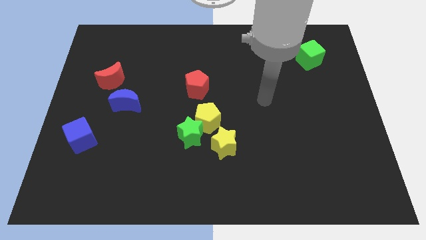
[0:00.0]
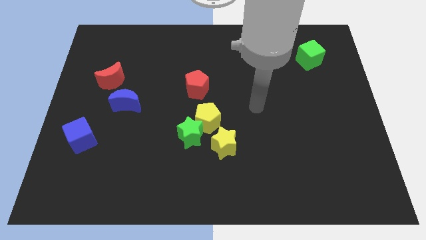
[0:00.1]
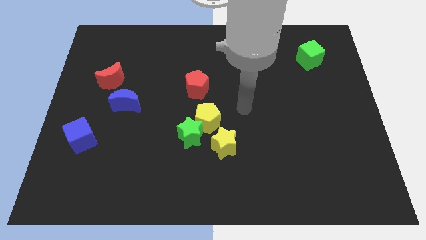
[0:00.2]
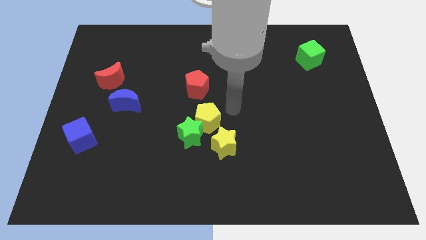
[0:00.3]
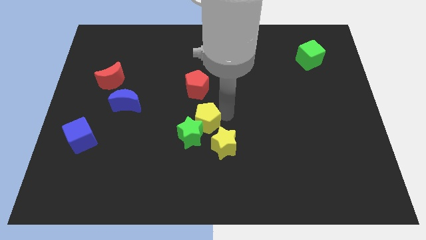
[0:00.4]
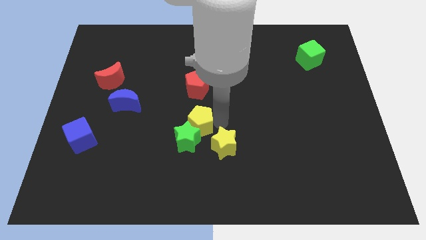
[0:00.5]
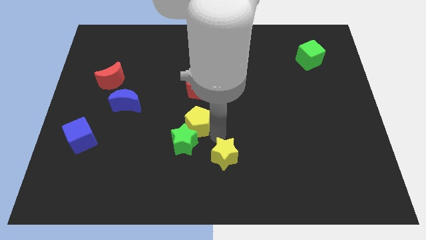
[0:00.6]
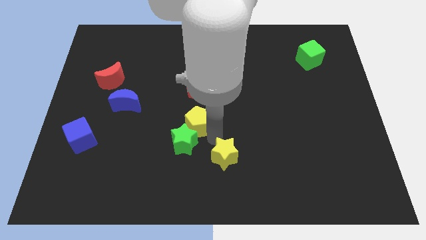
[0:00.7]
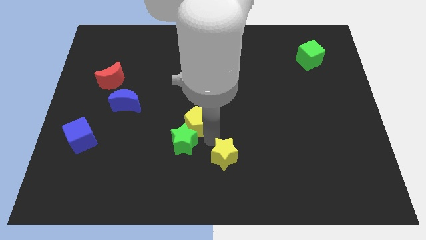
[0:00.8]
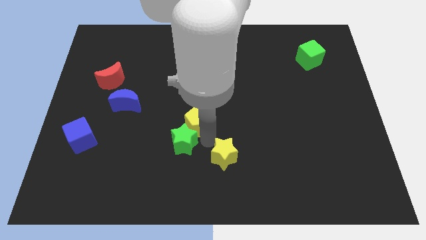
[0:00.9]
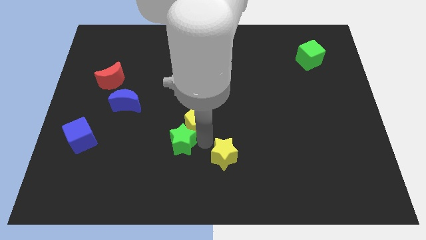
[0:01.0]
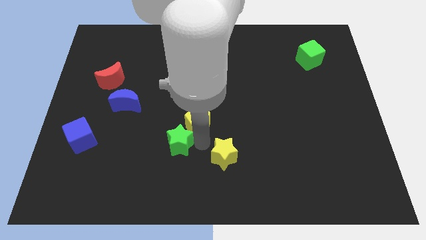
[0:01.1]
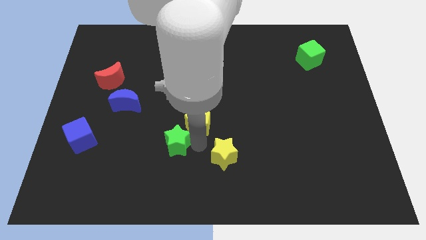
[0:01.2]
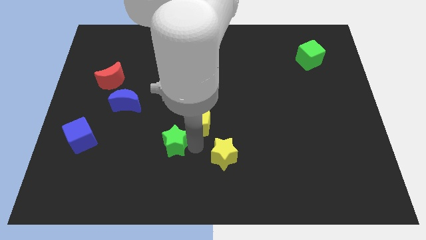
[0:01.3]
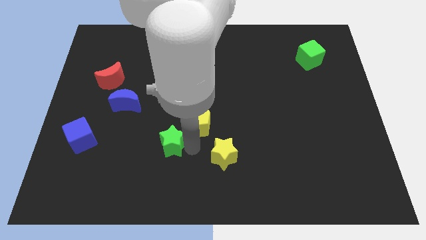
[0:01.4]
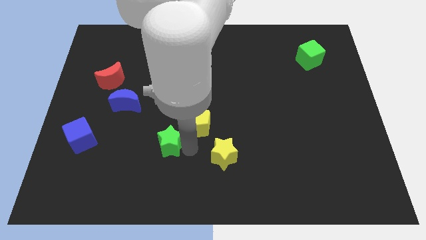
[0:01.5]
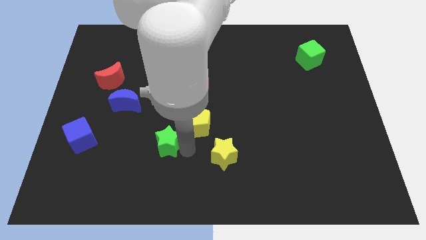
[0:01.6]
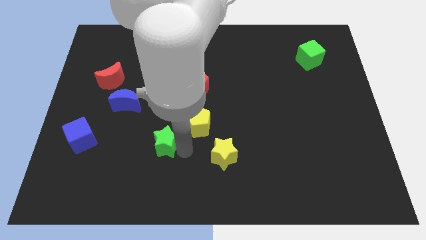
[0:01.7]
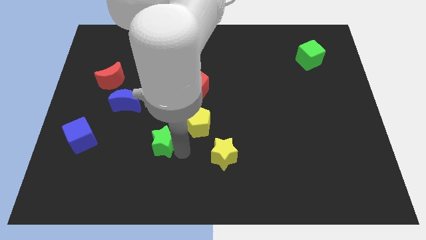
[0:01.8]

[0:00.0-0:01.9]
move the green star away from the yellow pentagon and yellow star

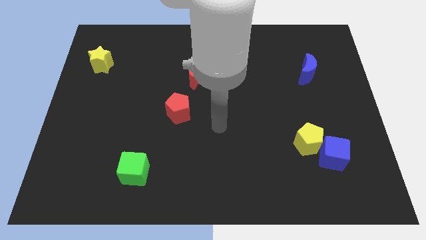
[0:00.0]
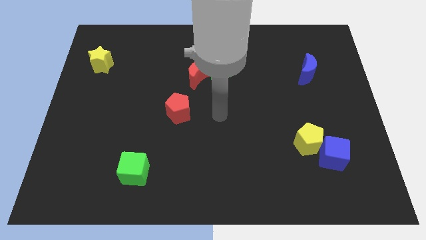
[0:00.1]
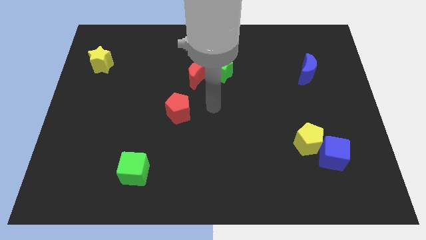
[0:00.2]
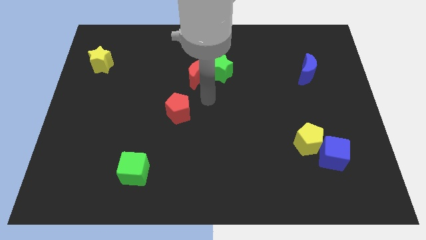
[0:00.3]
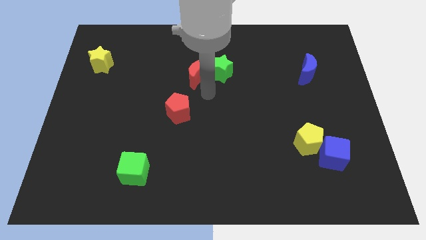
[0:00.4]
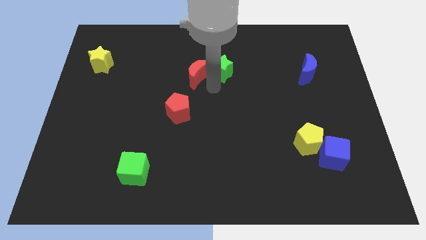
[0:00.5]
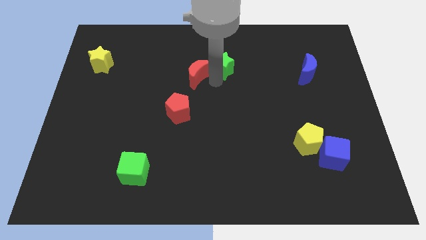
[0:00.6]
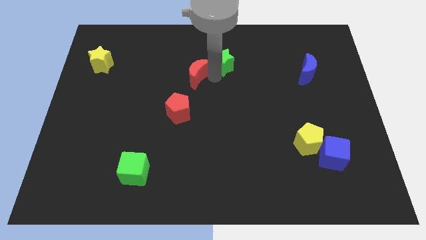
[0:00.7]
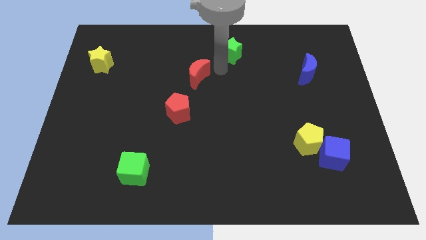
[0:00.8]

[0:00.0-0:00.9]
pull the red moon apart from the green star

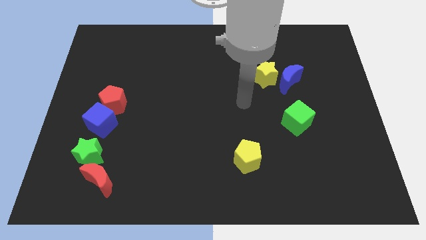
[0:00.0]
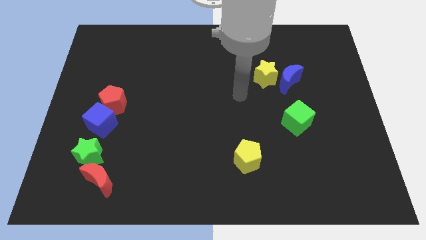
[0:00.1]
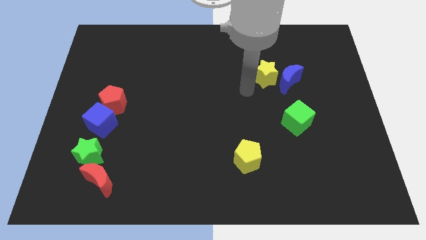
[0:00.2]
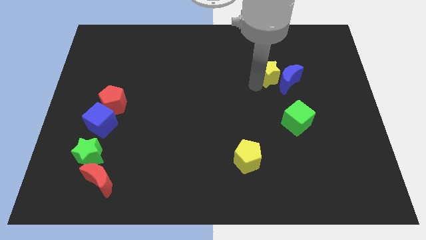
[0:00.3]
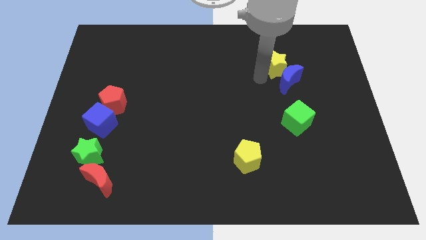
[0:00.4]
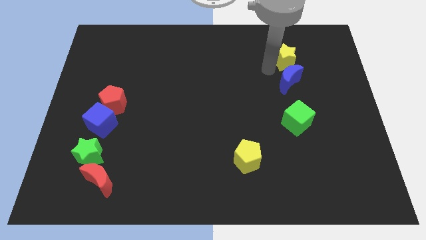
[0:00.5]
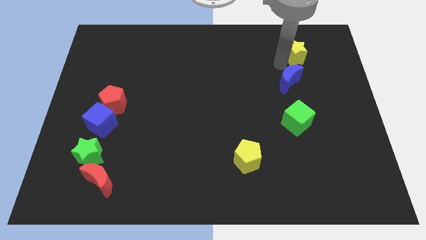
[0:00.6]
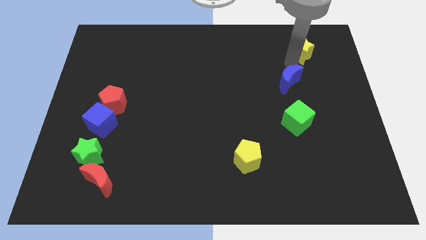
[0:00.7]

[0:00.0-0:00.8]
pull the blue moon apart from the yellow star

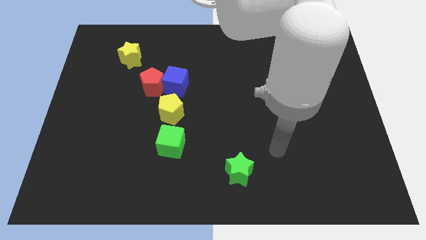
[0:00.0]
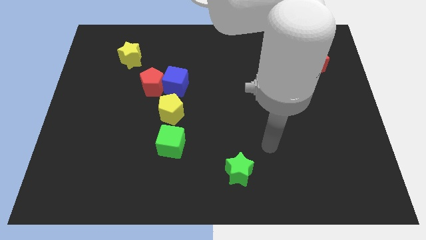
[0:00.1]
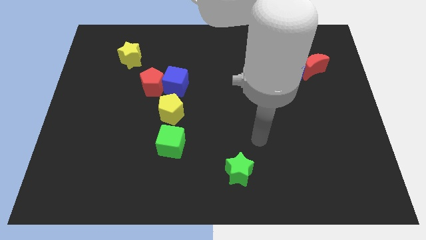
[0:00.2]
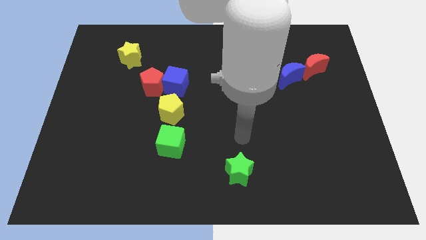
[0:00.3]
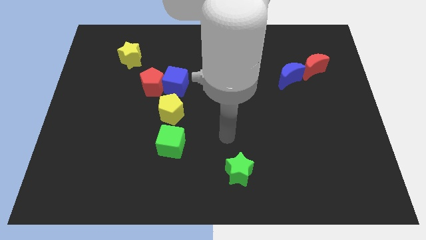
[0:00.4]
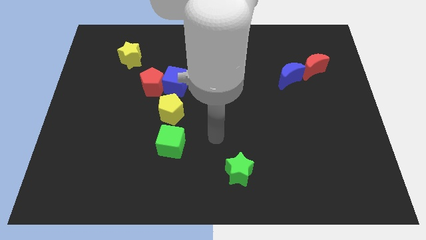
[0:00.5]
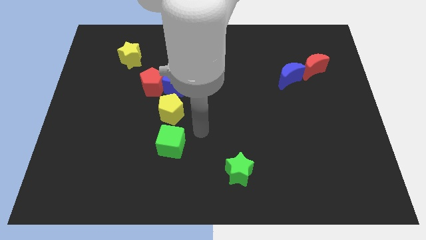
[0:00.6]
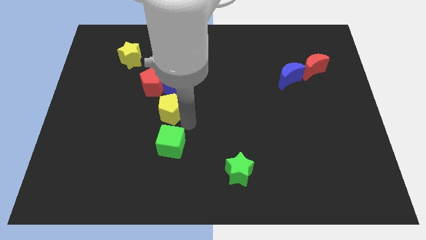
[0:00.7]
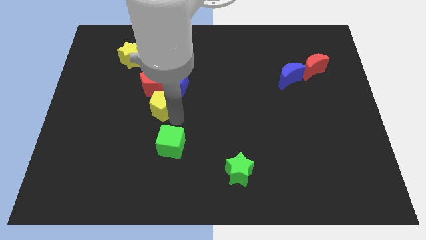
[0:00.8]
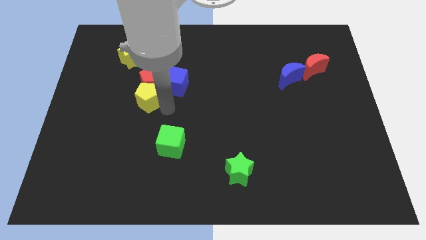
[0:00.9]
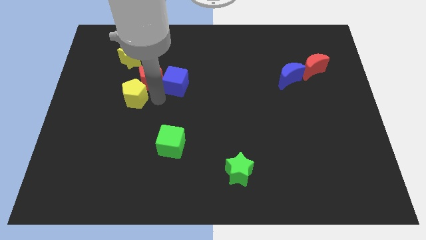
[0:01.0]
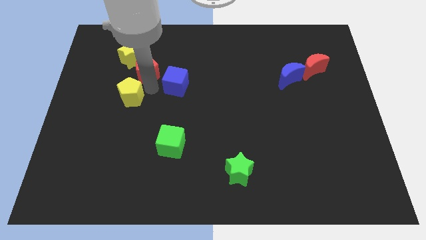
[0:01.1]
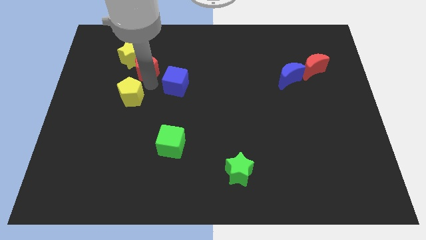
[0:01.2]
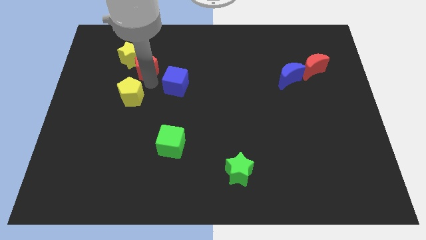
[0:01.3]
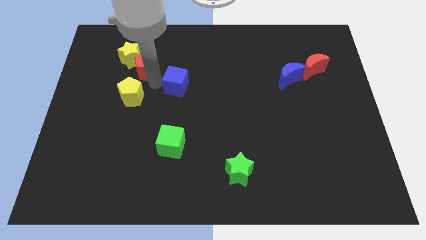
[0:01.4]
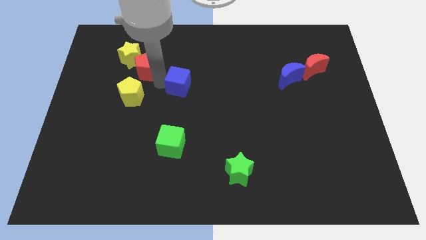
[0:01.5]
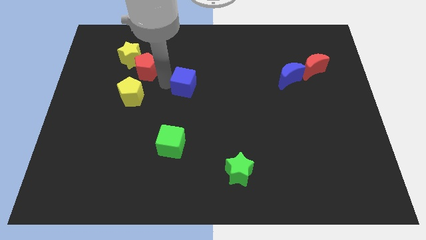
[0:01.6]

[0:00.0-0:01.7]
separate the blue cube from the red pentagon and yellow pentagon

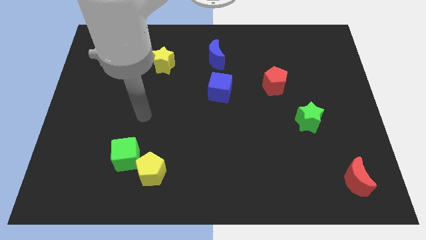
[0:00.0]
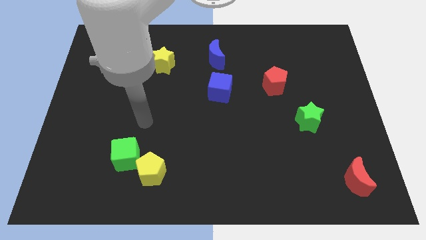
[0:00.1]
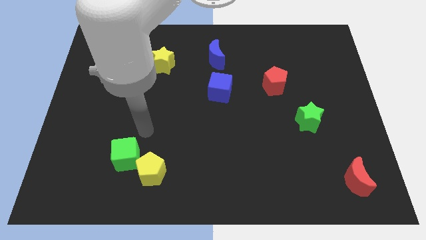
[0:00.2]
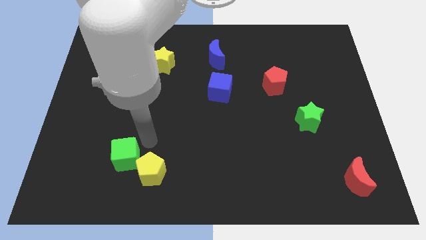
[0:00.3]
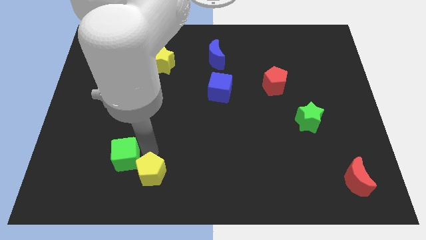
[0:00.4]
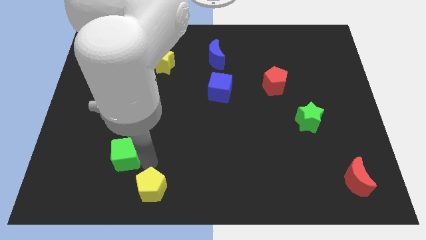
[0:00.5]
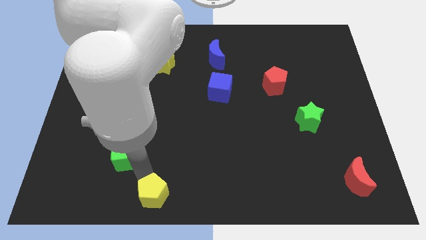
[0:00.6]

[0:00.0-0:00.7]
move the green cube away from the yellow pentagon

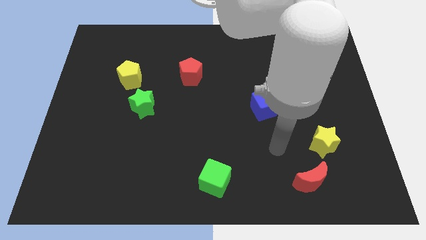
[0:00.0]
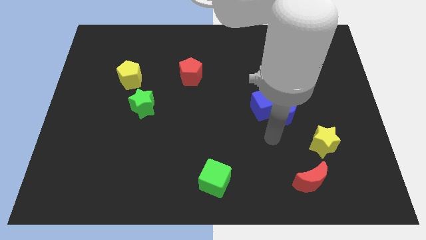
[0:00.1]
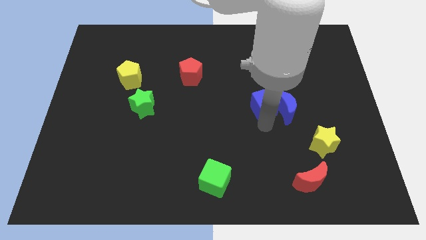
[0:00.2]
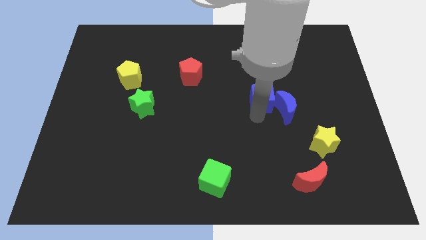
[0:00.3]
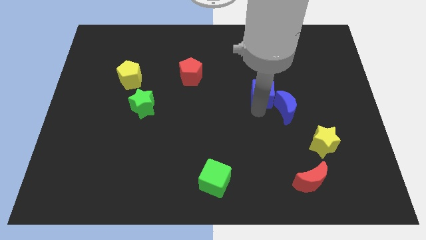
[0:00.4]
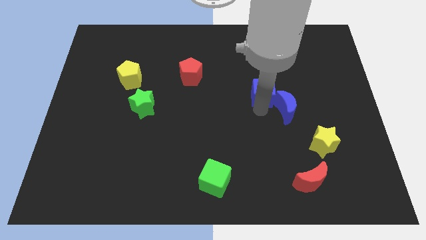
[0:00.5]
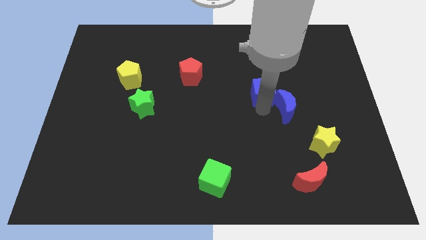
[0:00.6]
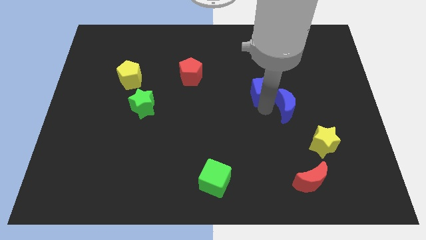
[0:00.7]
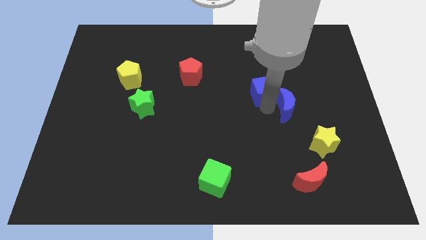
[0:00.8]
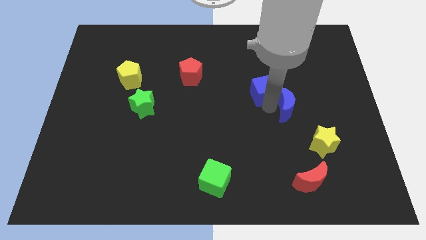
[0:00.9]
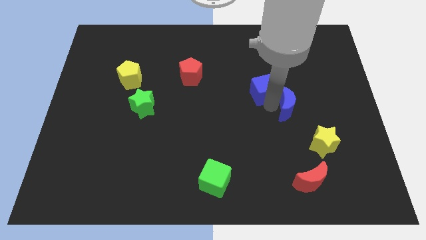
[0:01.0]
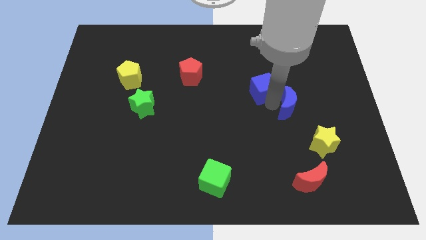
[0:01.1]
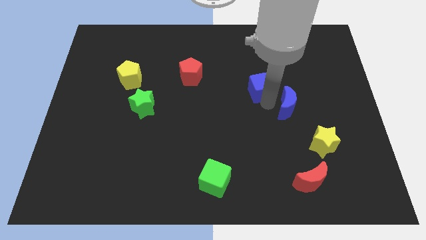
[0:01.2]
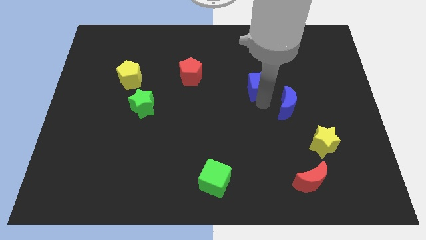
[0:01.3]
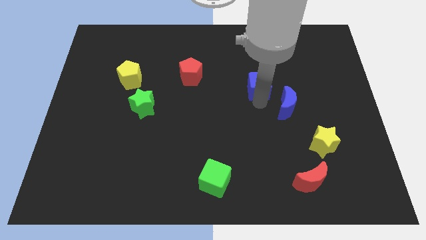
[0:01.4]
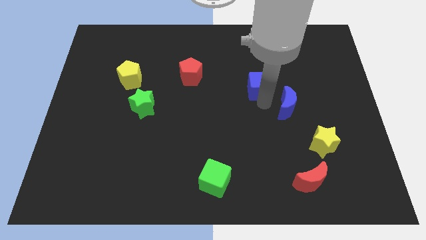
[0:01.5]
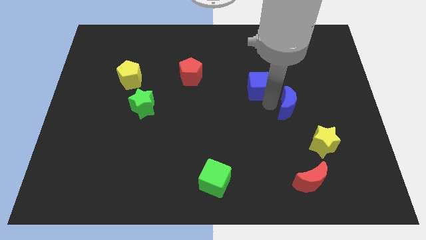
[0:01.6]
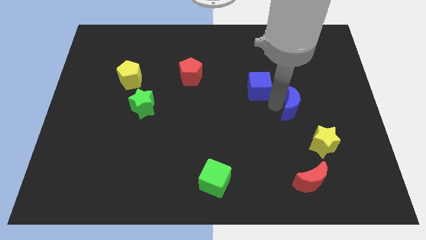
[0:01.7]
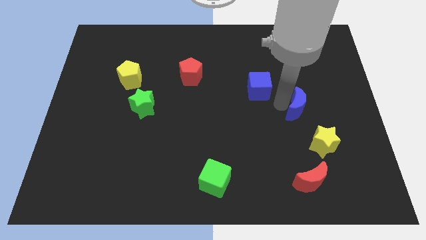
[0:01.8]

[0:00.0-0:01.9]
pull the blue moon apart from the blue cube

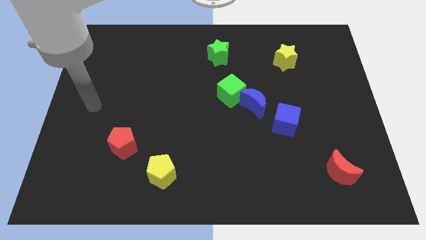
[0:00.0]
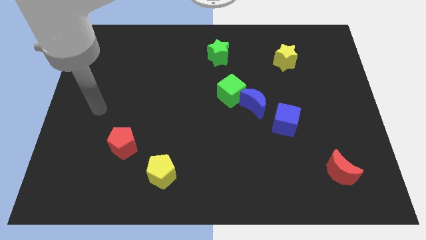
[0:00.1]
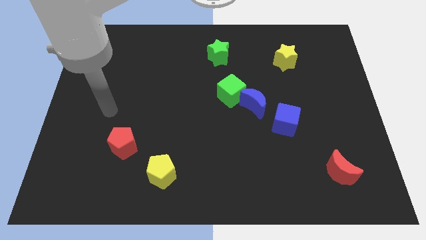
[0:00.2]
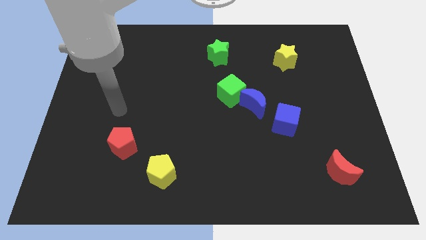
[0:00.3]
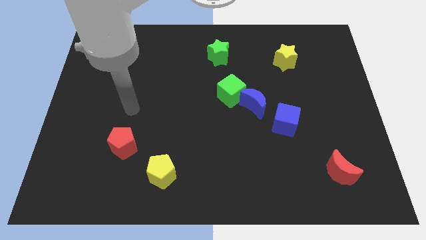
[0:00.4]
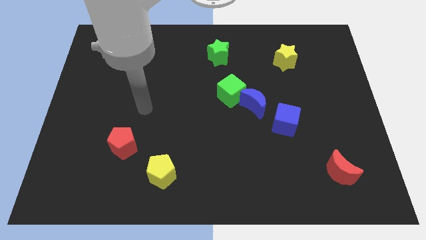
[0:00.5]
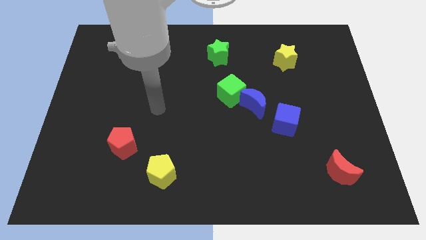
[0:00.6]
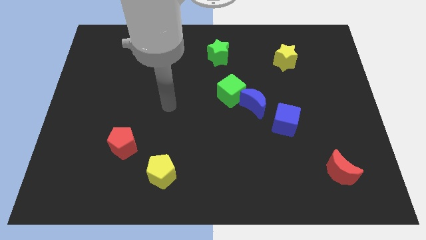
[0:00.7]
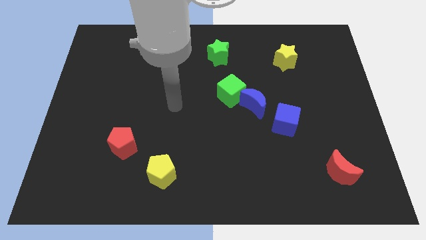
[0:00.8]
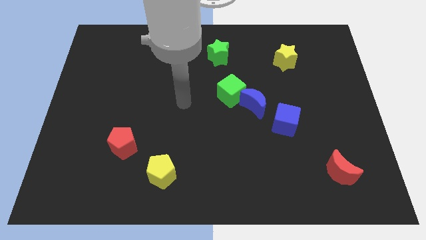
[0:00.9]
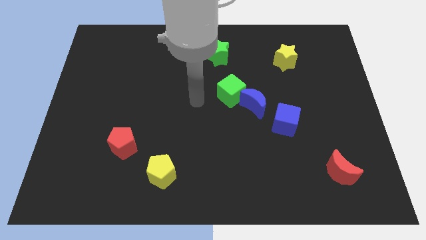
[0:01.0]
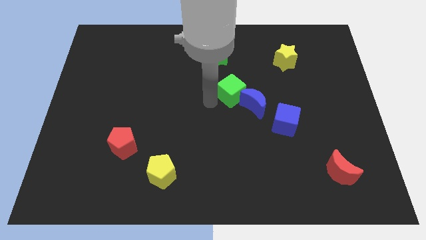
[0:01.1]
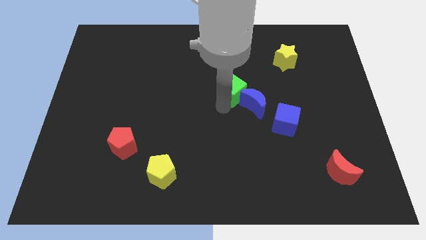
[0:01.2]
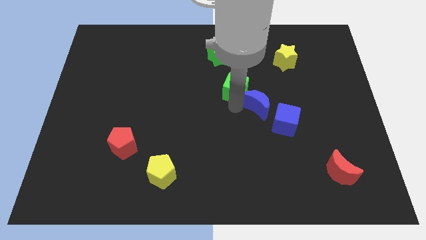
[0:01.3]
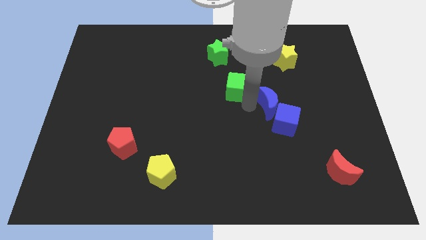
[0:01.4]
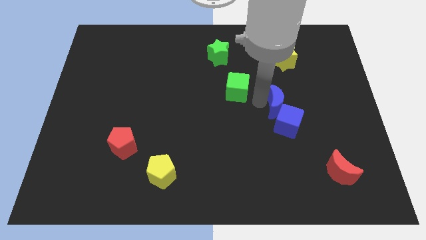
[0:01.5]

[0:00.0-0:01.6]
pull the green cube apart from the blue moon
